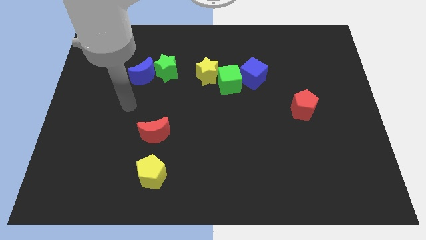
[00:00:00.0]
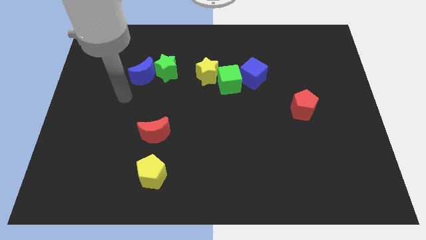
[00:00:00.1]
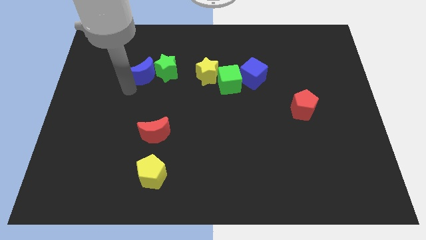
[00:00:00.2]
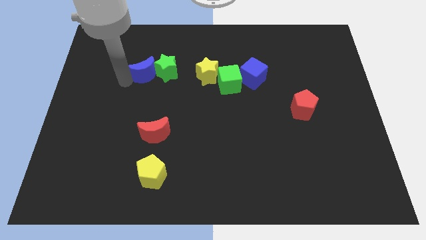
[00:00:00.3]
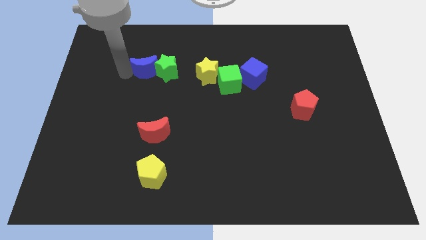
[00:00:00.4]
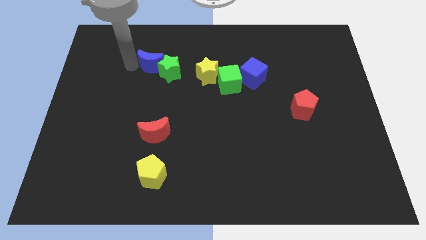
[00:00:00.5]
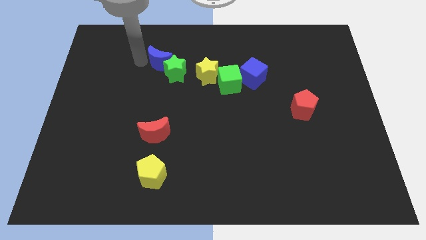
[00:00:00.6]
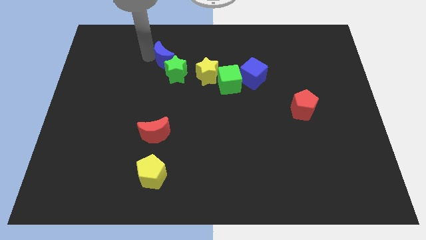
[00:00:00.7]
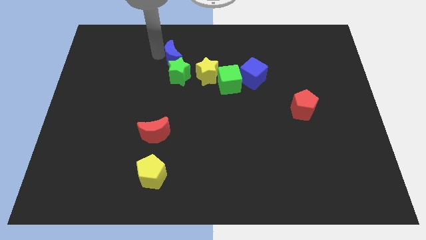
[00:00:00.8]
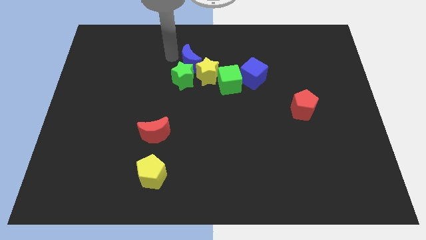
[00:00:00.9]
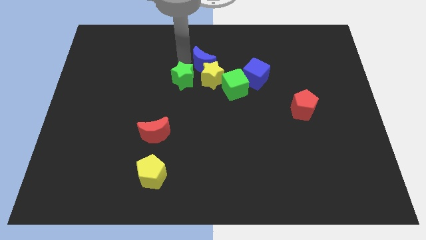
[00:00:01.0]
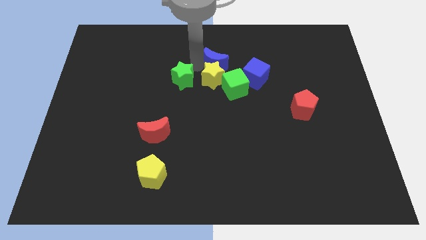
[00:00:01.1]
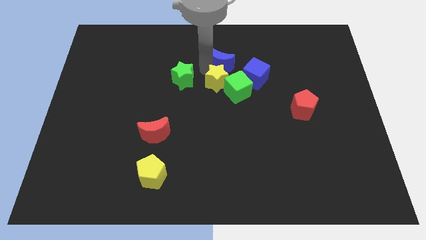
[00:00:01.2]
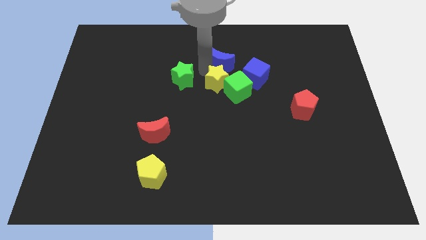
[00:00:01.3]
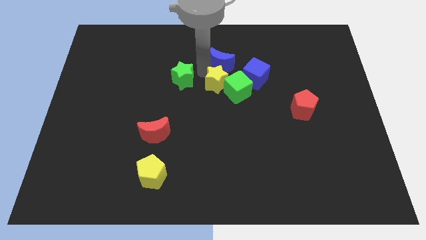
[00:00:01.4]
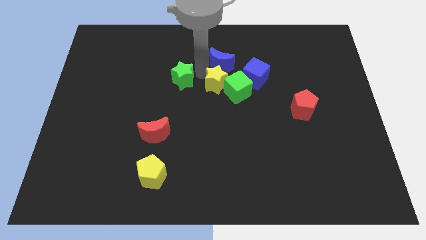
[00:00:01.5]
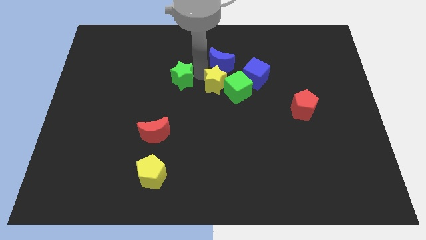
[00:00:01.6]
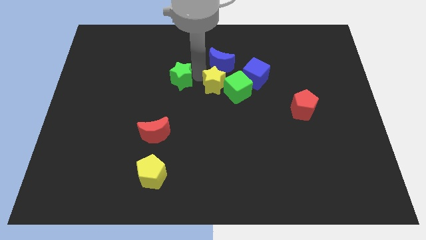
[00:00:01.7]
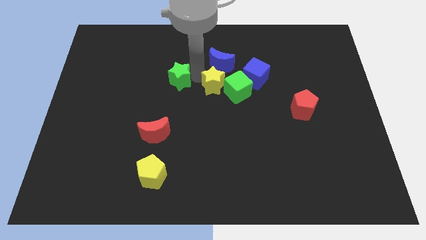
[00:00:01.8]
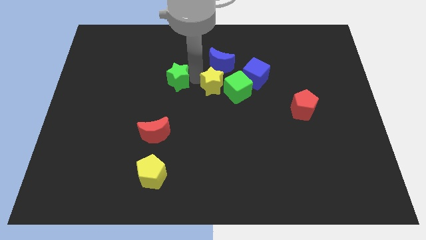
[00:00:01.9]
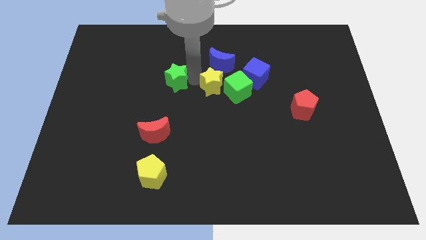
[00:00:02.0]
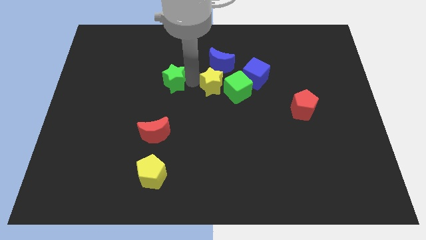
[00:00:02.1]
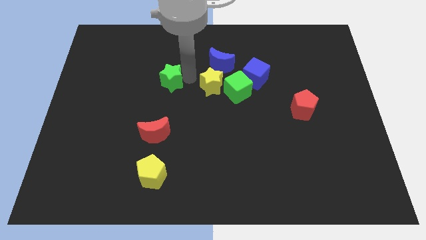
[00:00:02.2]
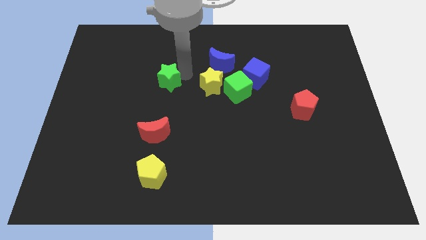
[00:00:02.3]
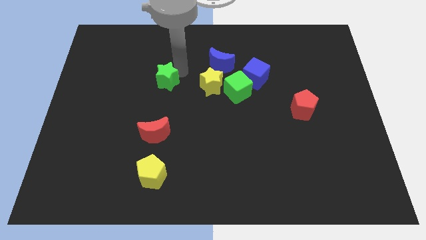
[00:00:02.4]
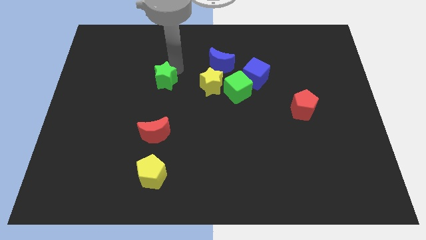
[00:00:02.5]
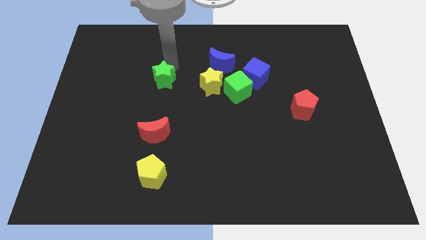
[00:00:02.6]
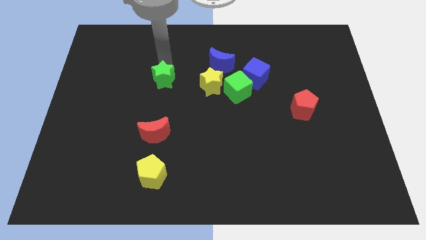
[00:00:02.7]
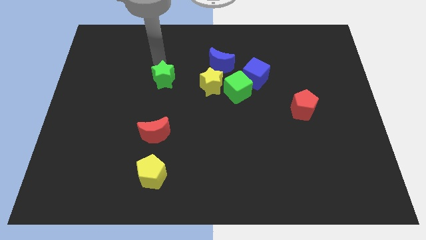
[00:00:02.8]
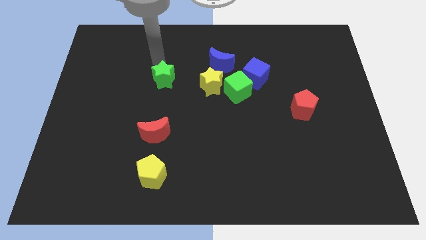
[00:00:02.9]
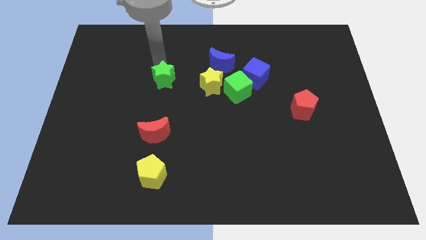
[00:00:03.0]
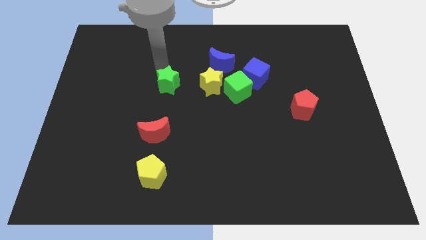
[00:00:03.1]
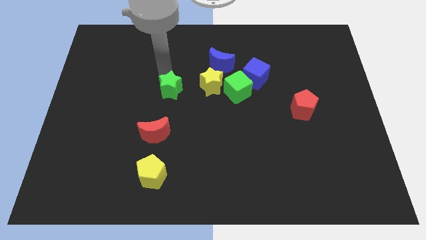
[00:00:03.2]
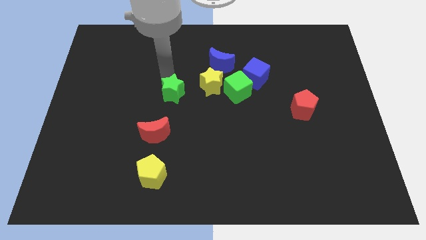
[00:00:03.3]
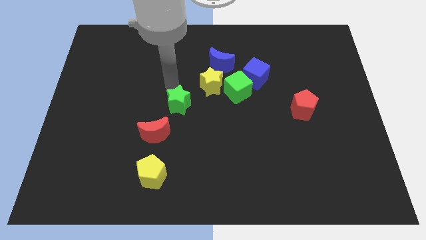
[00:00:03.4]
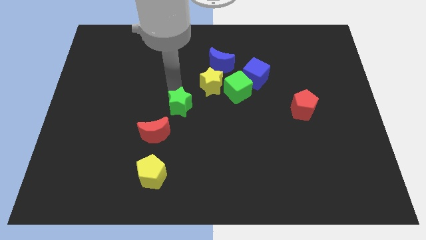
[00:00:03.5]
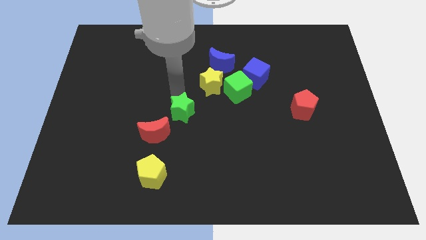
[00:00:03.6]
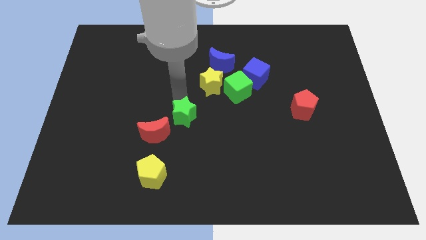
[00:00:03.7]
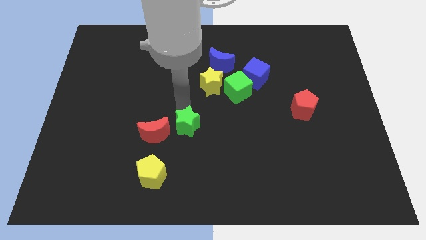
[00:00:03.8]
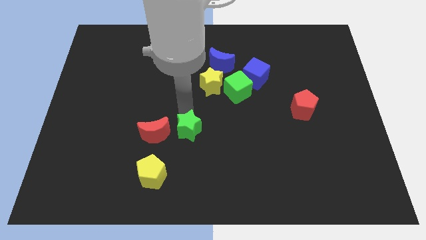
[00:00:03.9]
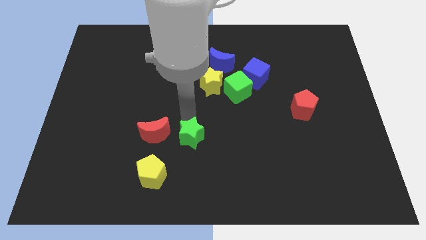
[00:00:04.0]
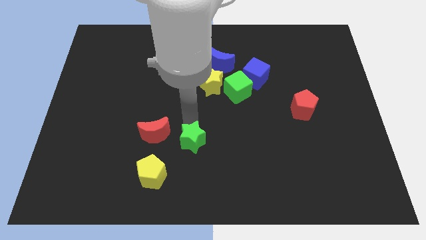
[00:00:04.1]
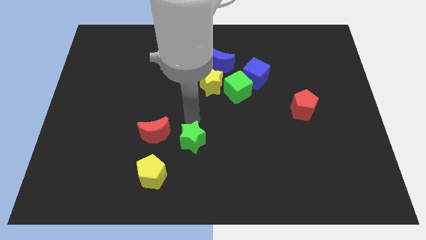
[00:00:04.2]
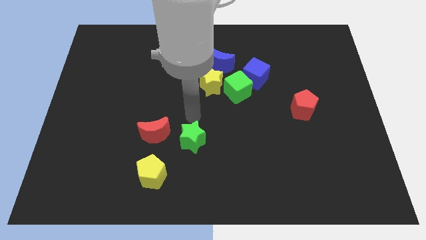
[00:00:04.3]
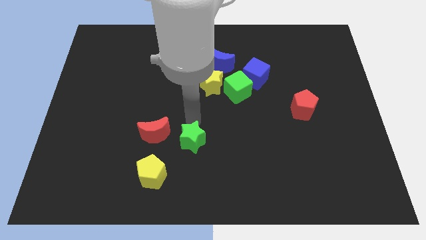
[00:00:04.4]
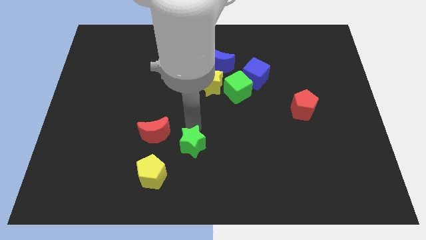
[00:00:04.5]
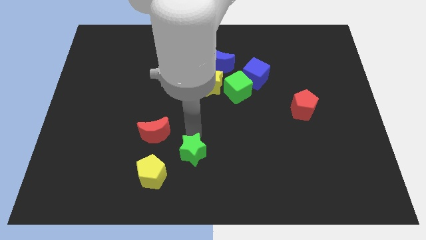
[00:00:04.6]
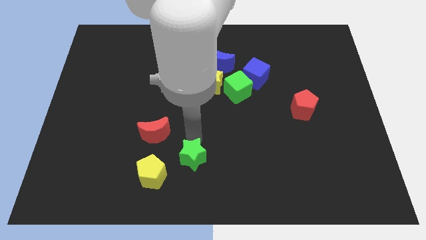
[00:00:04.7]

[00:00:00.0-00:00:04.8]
push the green star to the bottom

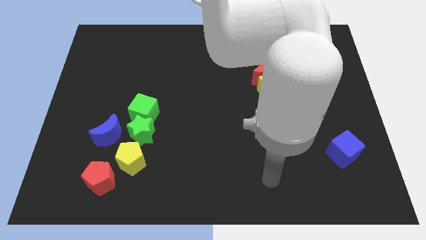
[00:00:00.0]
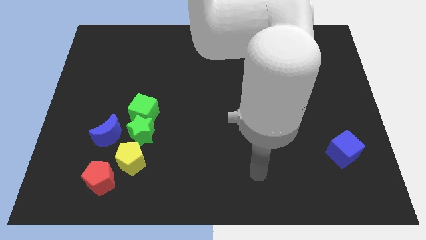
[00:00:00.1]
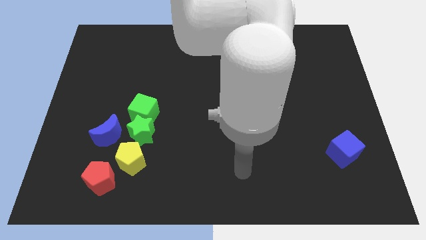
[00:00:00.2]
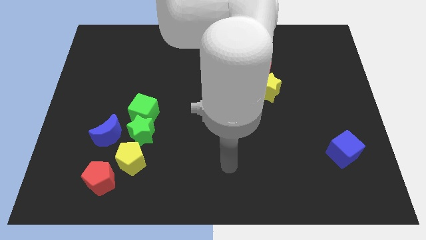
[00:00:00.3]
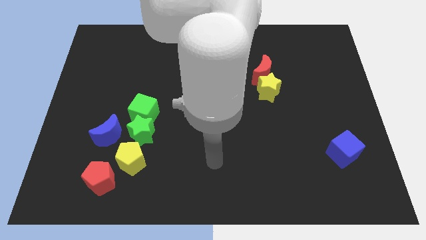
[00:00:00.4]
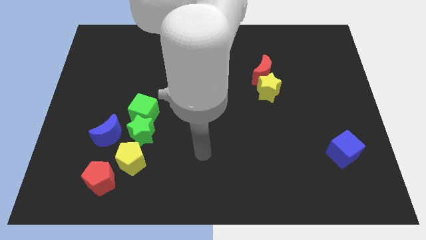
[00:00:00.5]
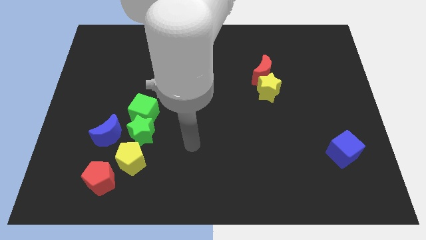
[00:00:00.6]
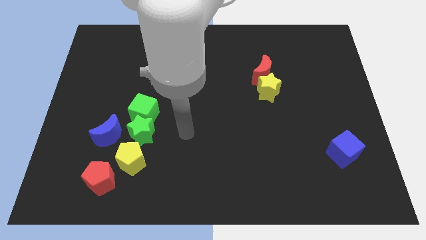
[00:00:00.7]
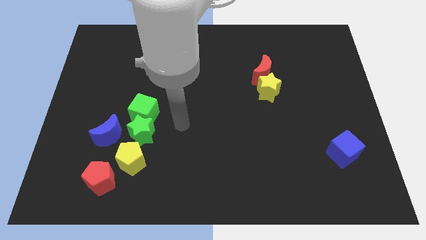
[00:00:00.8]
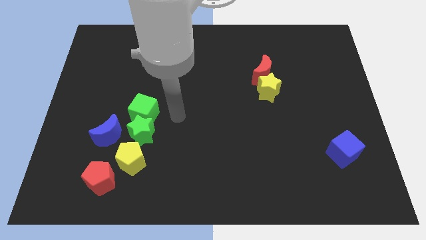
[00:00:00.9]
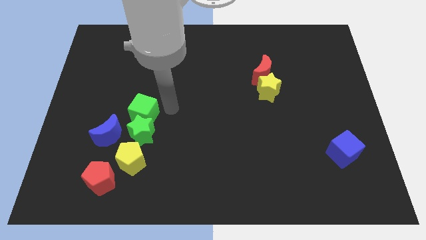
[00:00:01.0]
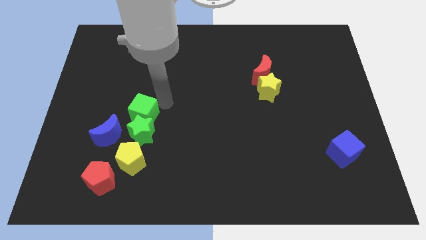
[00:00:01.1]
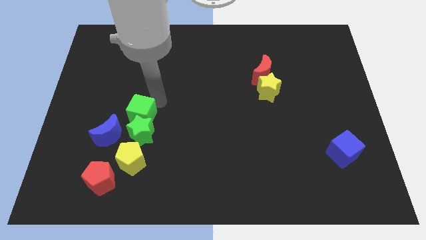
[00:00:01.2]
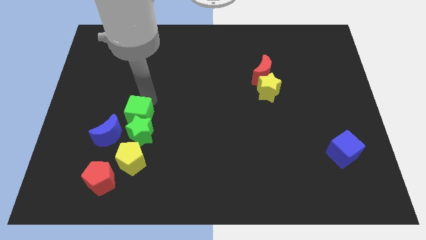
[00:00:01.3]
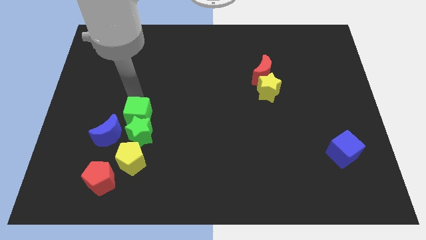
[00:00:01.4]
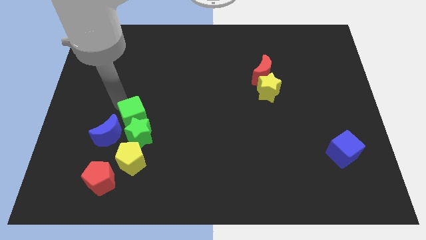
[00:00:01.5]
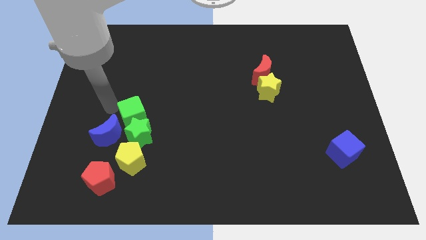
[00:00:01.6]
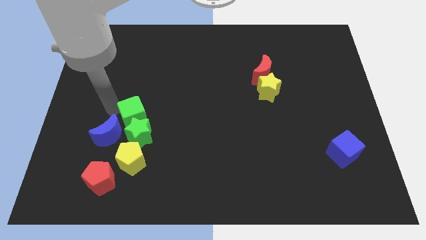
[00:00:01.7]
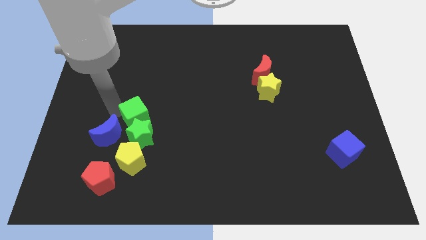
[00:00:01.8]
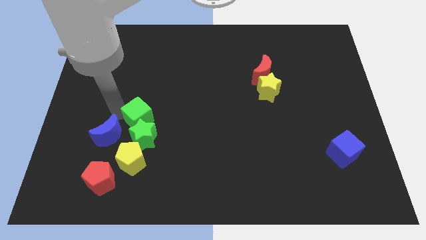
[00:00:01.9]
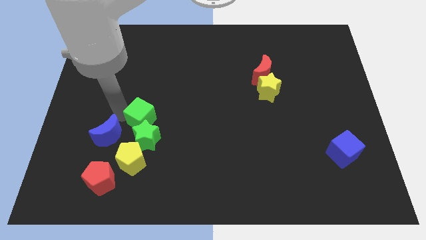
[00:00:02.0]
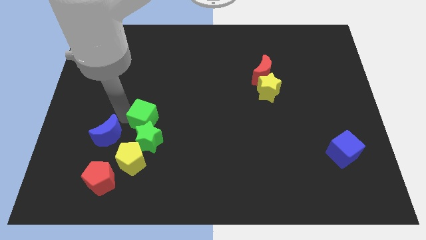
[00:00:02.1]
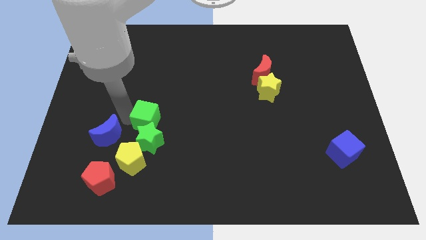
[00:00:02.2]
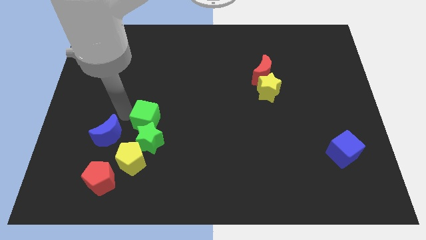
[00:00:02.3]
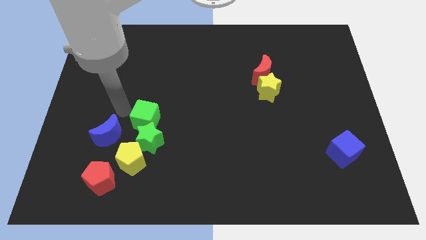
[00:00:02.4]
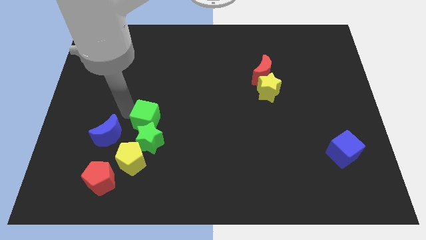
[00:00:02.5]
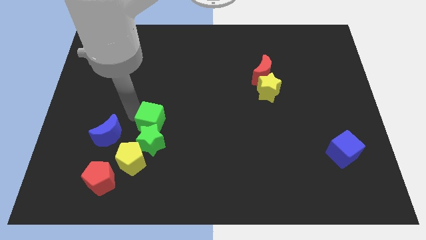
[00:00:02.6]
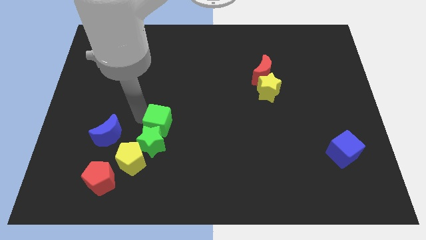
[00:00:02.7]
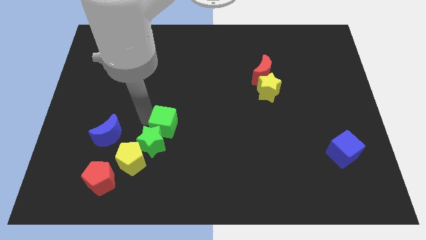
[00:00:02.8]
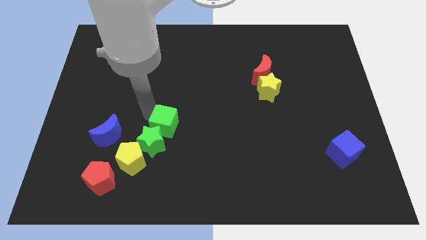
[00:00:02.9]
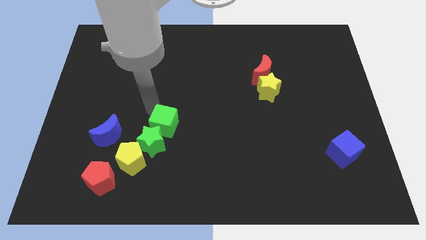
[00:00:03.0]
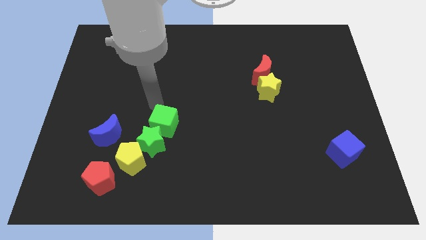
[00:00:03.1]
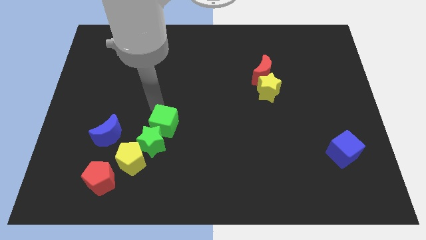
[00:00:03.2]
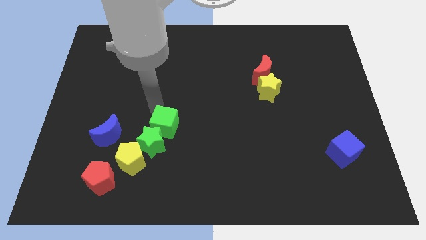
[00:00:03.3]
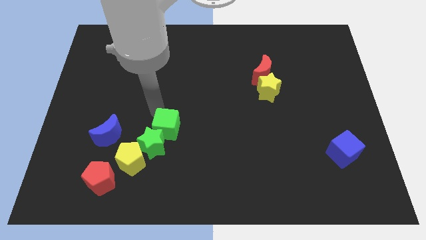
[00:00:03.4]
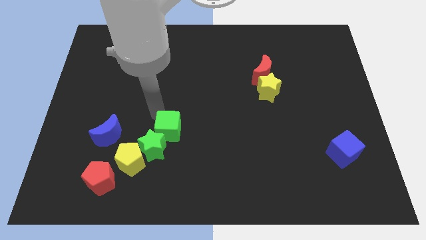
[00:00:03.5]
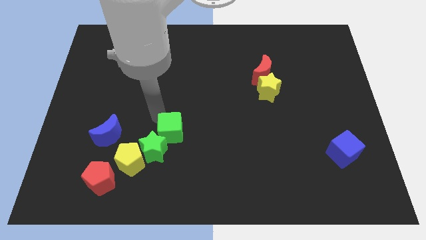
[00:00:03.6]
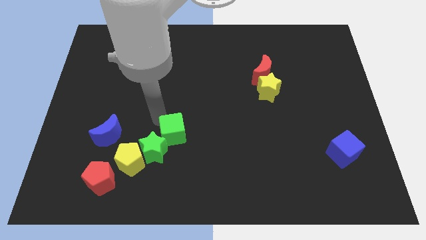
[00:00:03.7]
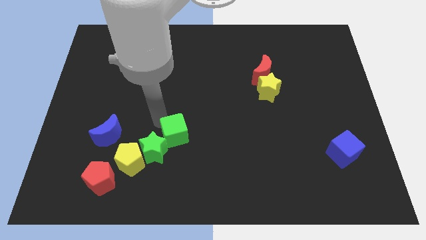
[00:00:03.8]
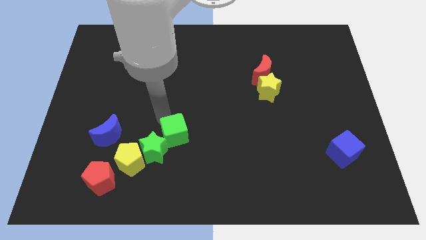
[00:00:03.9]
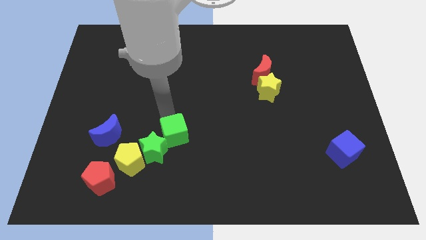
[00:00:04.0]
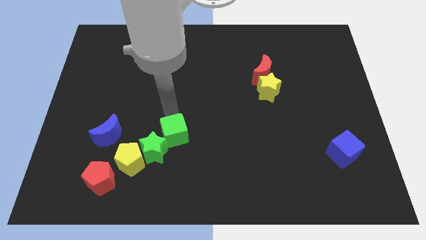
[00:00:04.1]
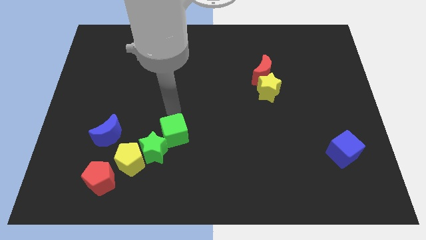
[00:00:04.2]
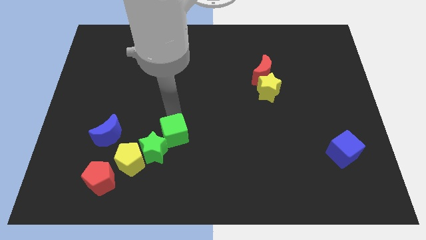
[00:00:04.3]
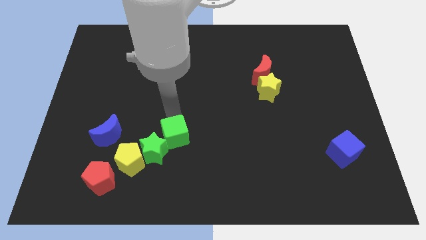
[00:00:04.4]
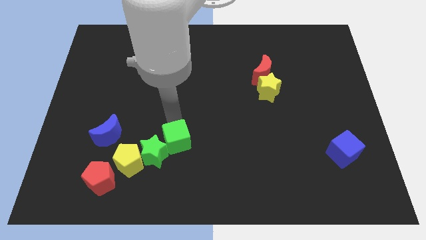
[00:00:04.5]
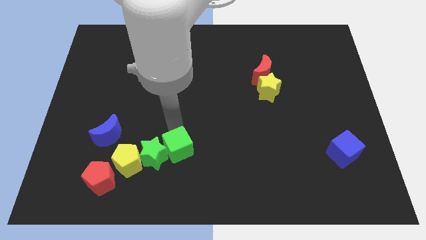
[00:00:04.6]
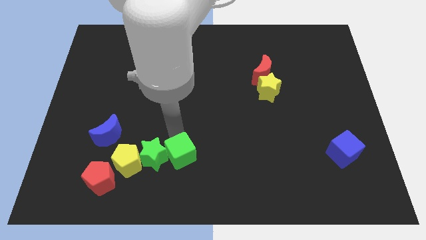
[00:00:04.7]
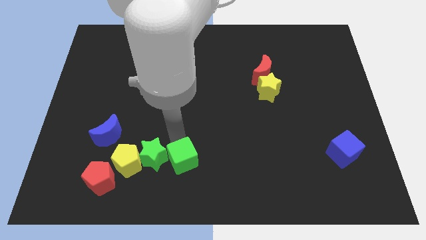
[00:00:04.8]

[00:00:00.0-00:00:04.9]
put the green cube to the bottom
